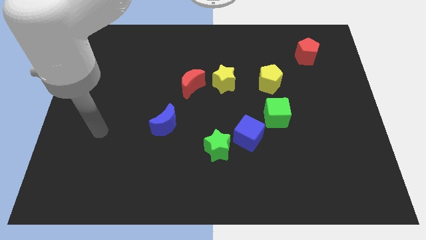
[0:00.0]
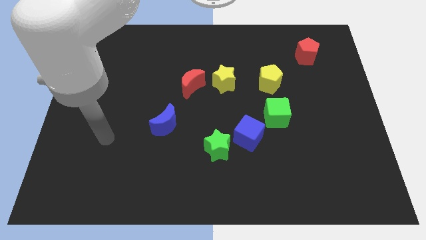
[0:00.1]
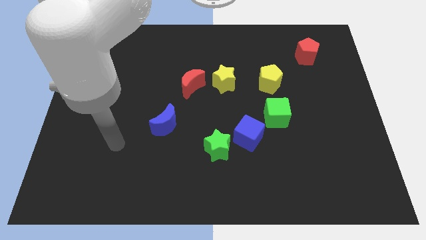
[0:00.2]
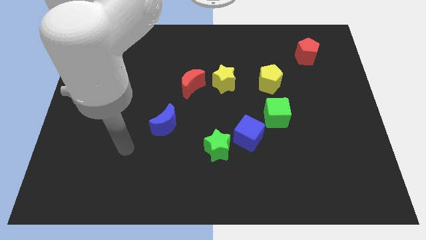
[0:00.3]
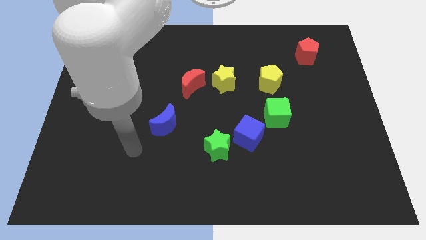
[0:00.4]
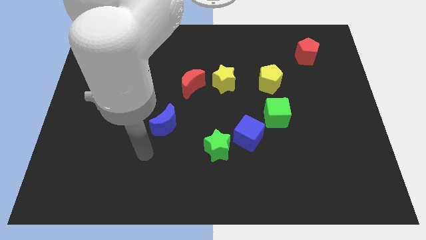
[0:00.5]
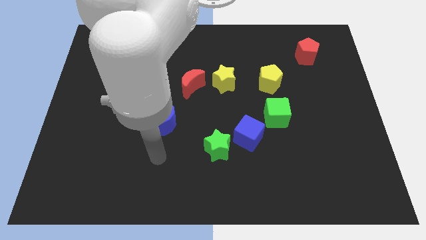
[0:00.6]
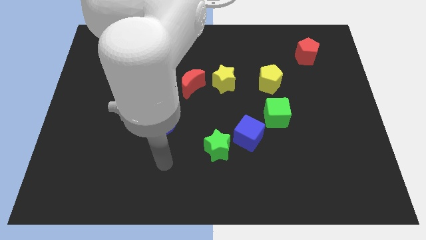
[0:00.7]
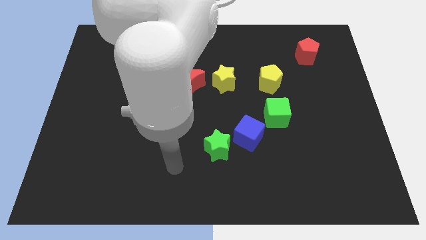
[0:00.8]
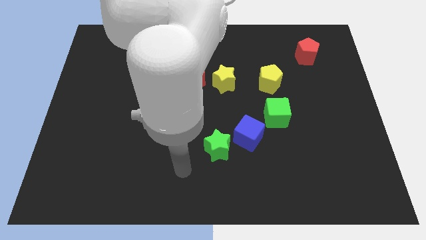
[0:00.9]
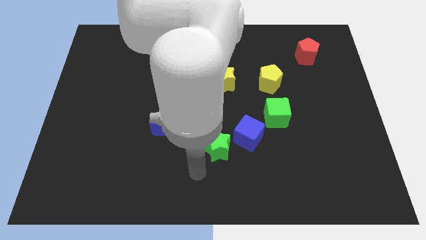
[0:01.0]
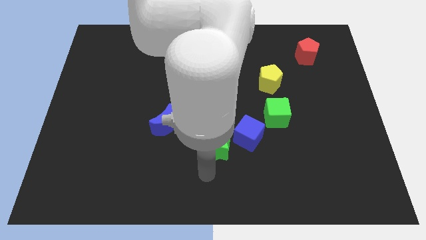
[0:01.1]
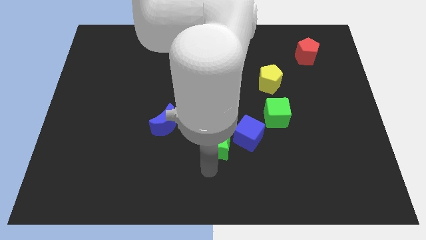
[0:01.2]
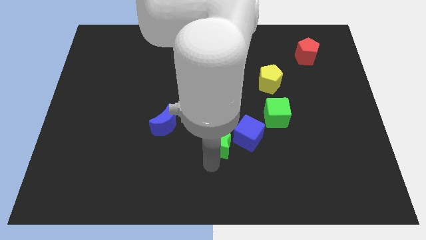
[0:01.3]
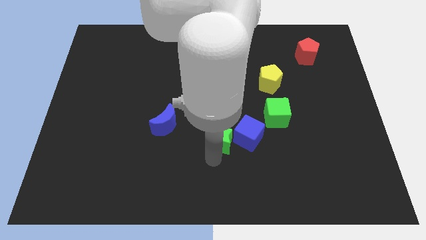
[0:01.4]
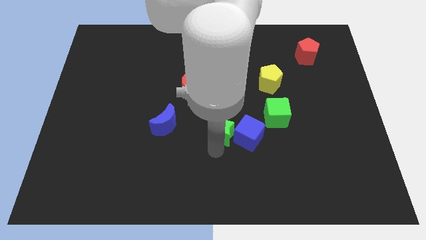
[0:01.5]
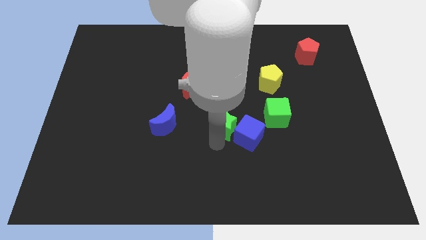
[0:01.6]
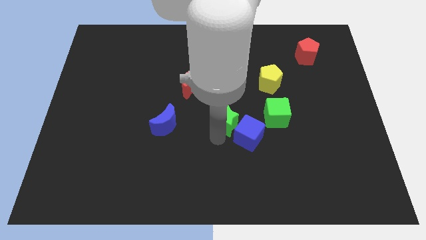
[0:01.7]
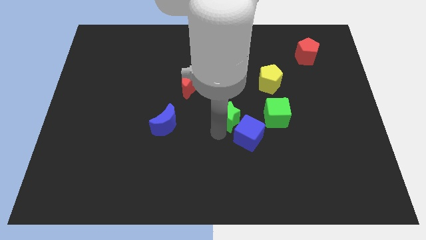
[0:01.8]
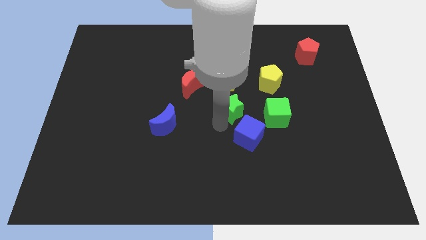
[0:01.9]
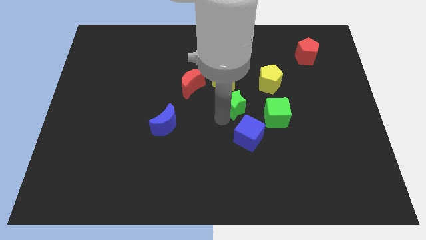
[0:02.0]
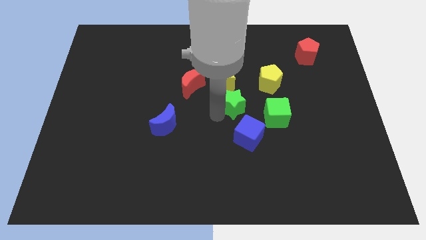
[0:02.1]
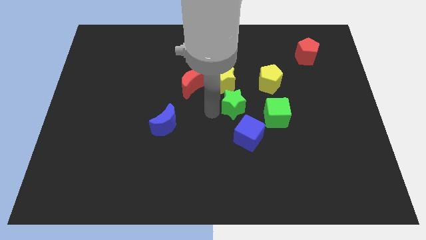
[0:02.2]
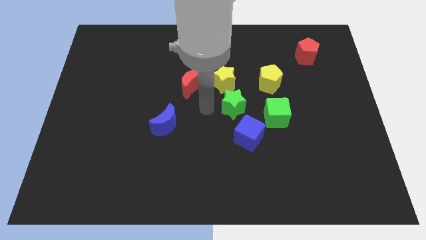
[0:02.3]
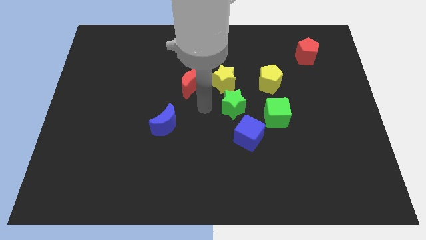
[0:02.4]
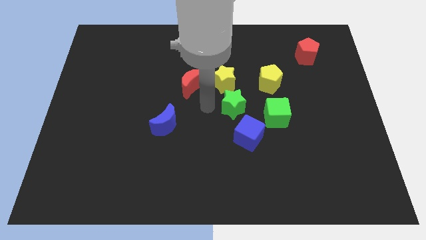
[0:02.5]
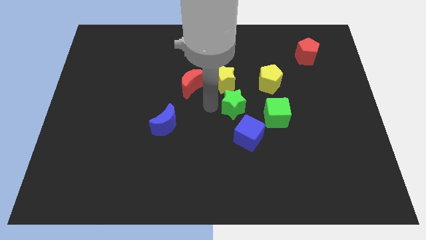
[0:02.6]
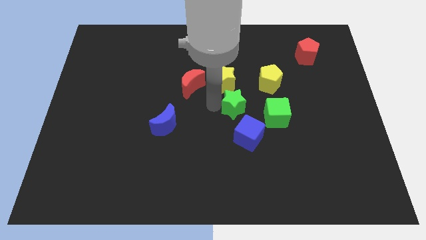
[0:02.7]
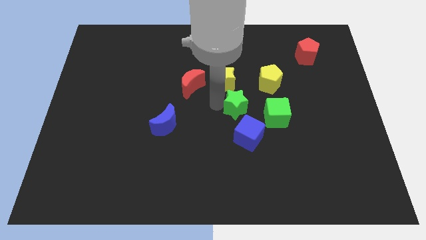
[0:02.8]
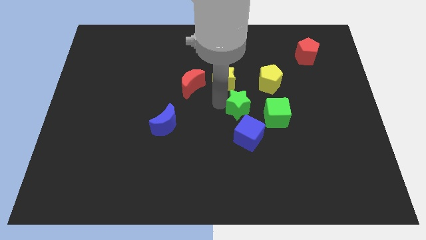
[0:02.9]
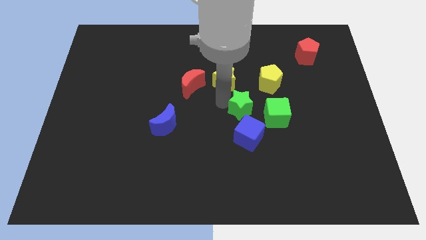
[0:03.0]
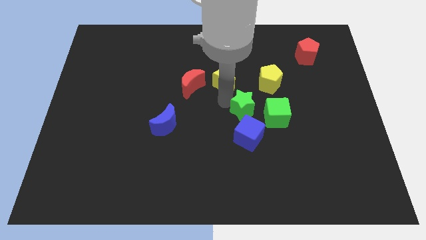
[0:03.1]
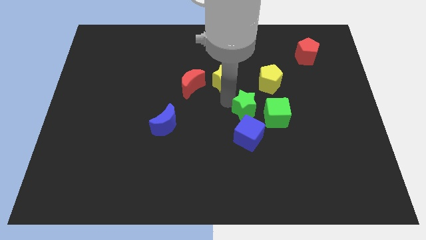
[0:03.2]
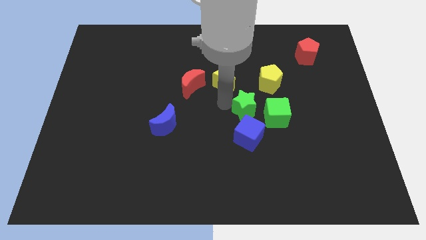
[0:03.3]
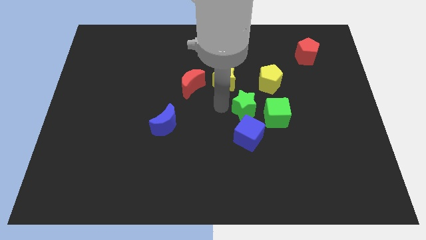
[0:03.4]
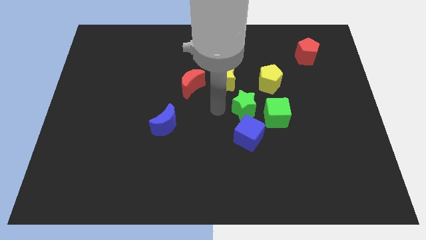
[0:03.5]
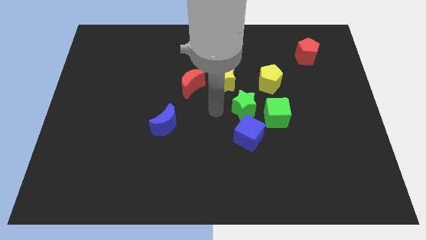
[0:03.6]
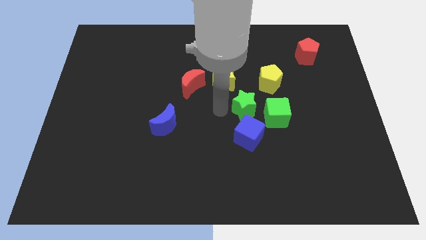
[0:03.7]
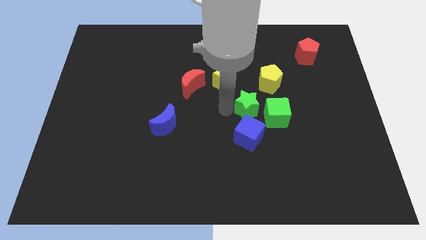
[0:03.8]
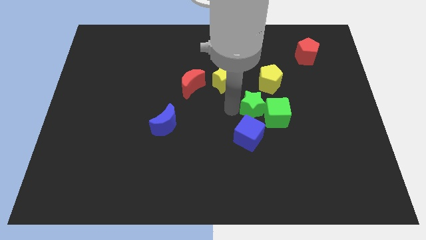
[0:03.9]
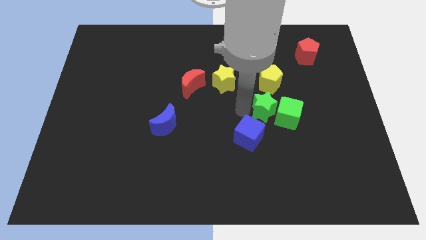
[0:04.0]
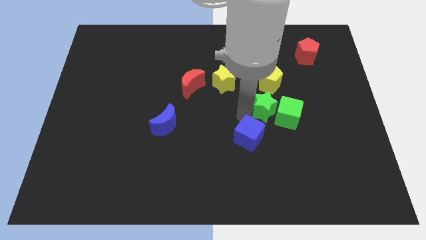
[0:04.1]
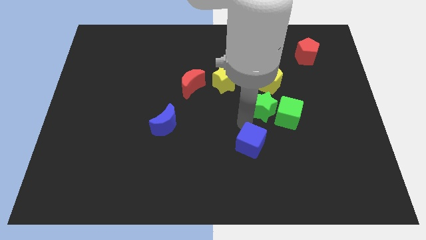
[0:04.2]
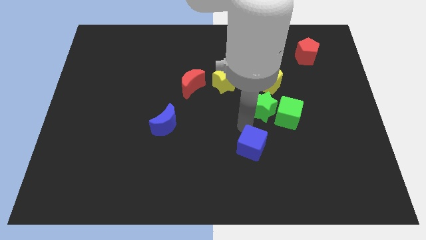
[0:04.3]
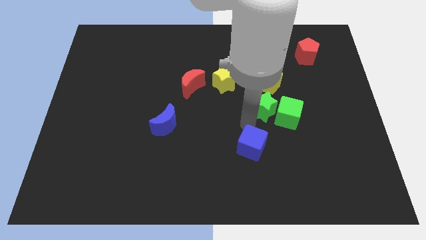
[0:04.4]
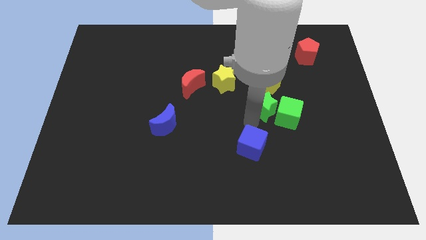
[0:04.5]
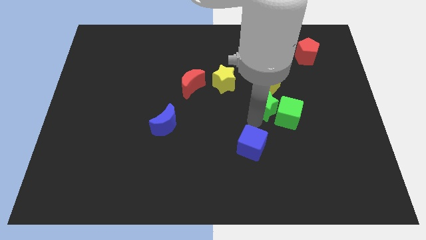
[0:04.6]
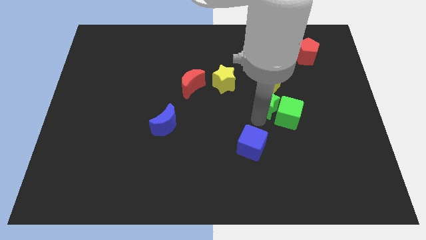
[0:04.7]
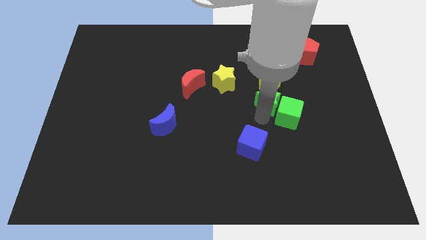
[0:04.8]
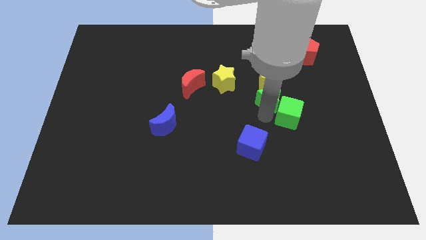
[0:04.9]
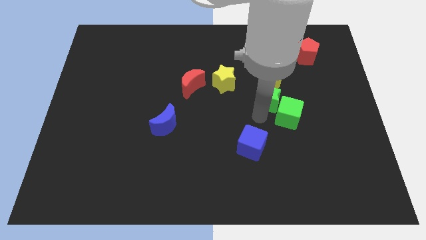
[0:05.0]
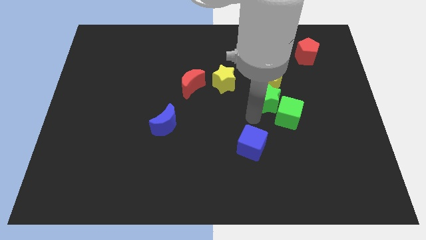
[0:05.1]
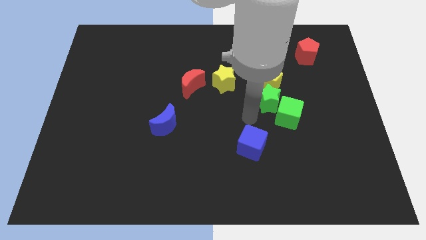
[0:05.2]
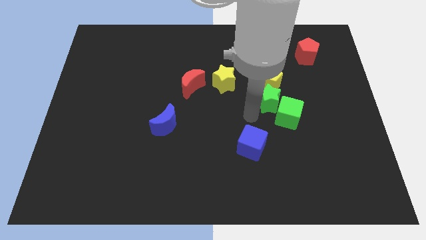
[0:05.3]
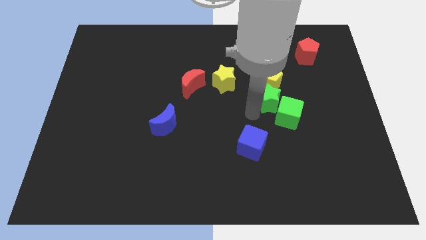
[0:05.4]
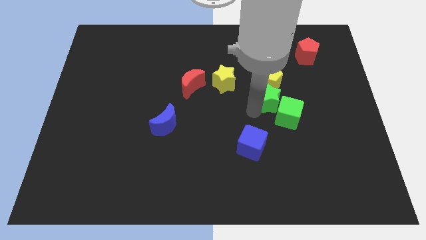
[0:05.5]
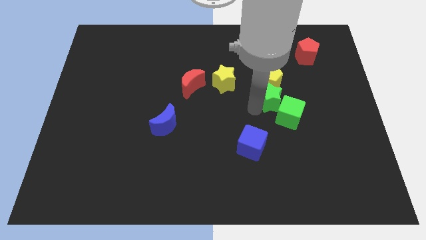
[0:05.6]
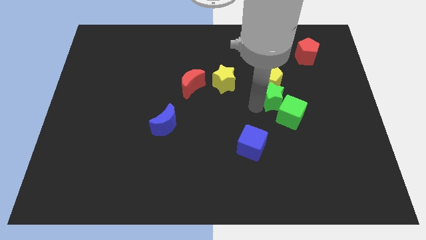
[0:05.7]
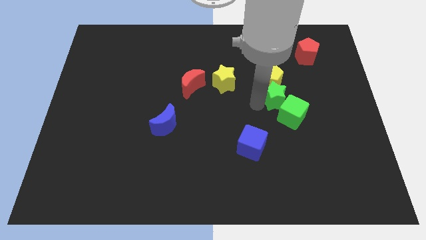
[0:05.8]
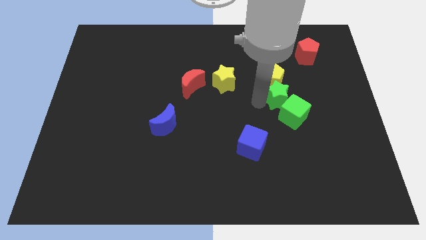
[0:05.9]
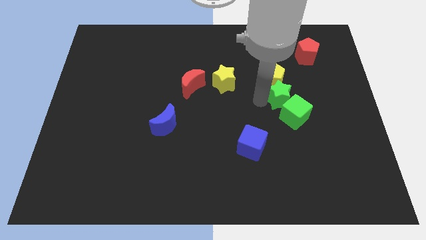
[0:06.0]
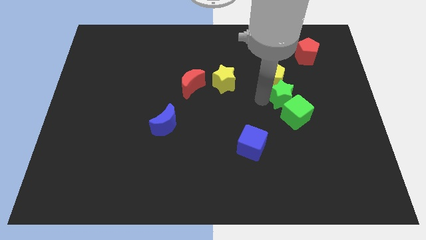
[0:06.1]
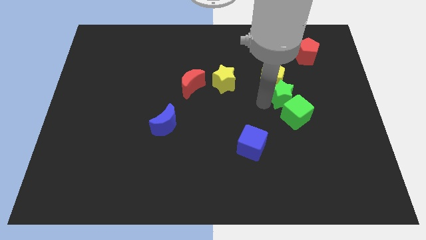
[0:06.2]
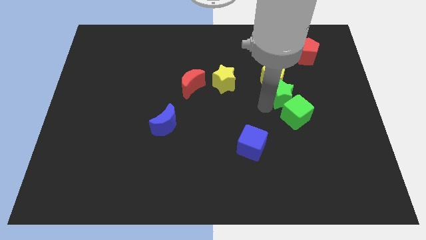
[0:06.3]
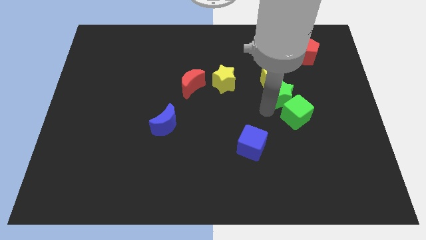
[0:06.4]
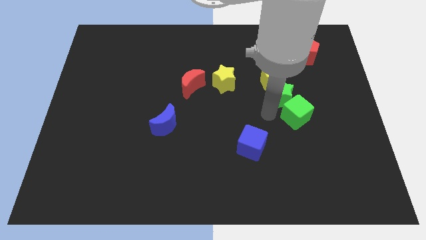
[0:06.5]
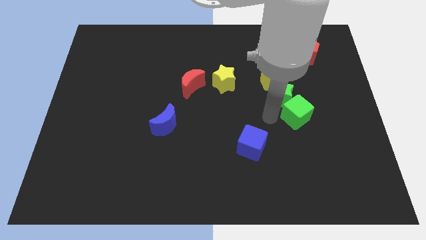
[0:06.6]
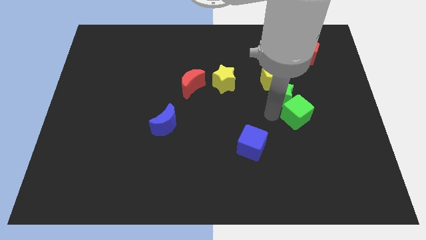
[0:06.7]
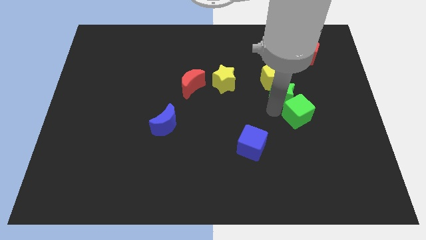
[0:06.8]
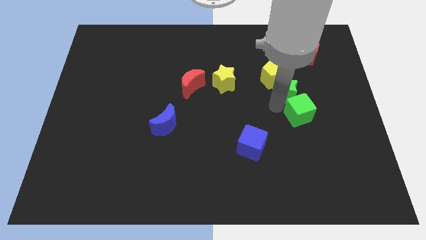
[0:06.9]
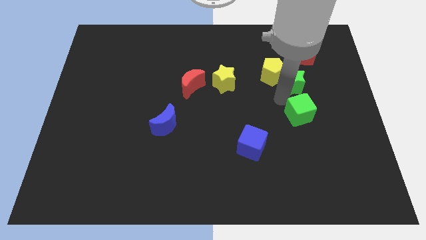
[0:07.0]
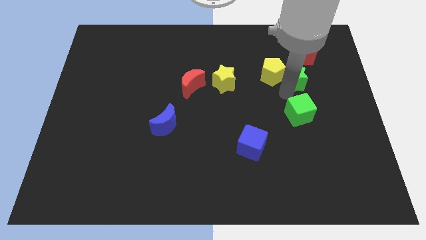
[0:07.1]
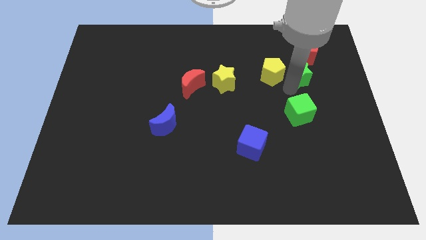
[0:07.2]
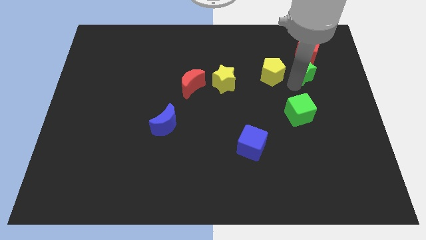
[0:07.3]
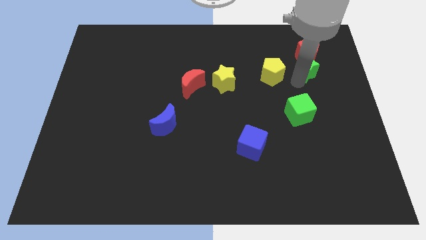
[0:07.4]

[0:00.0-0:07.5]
slide the green star close to the red pentagon
